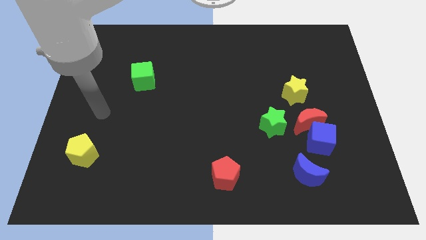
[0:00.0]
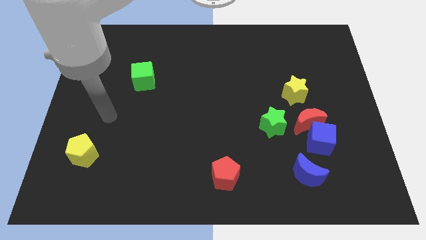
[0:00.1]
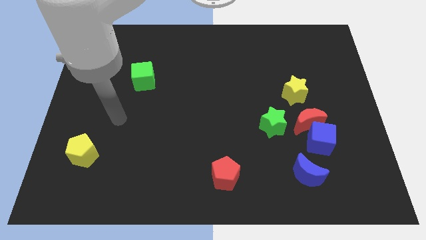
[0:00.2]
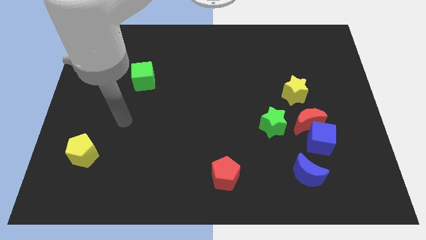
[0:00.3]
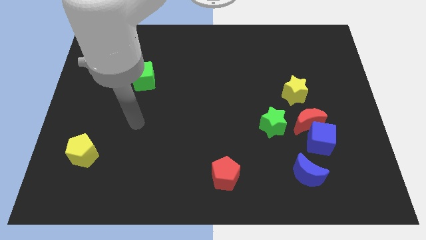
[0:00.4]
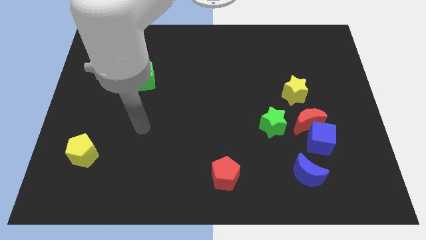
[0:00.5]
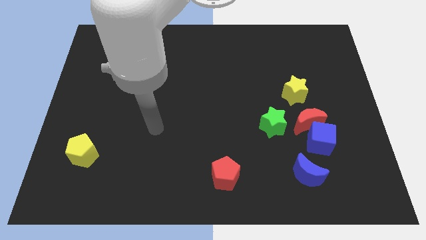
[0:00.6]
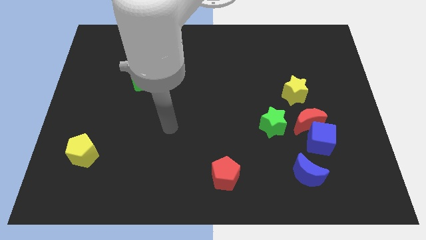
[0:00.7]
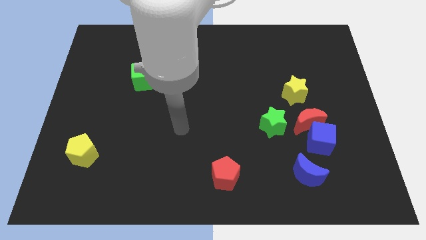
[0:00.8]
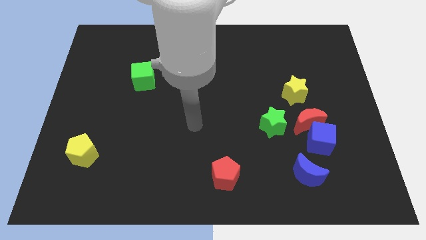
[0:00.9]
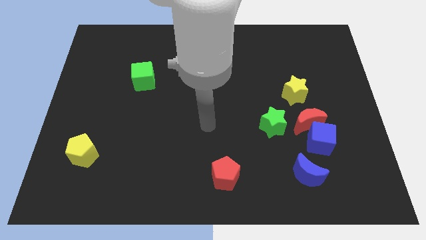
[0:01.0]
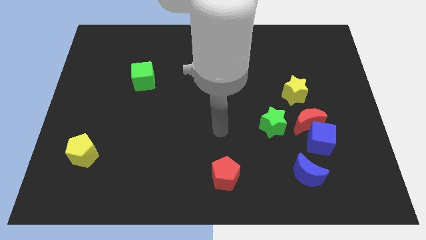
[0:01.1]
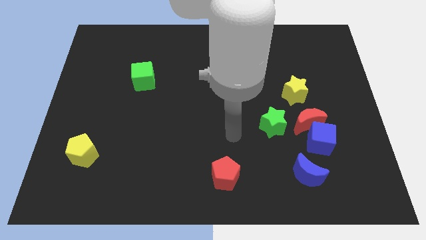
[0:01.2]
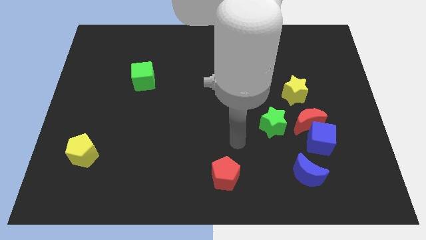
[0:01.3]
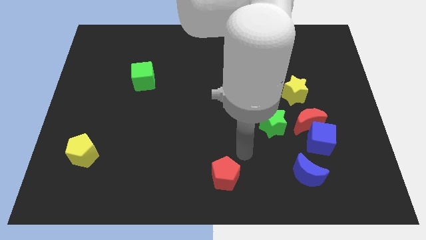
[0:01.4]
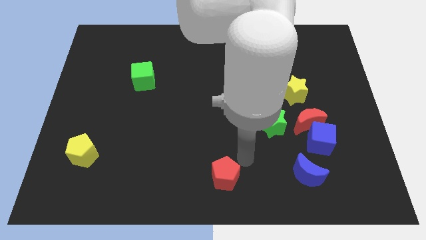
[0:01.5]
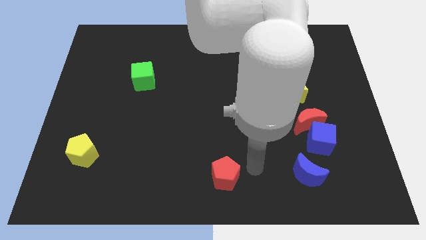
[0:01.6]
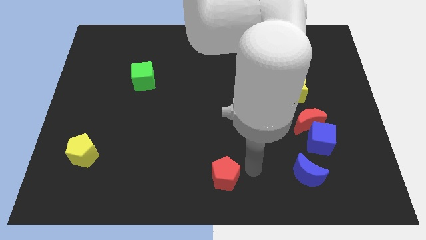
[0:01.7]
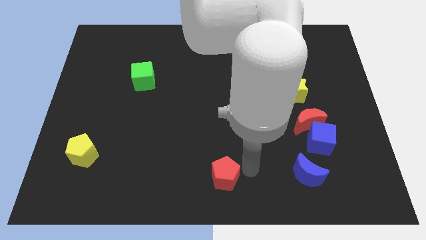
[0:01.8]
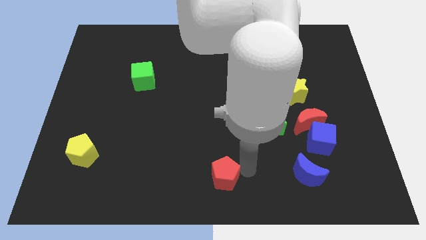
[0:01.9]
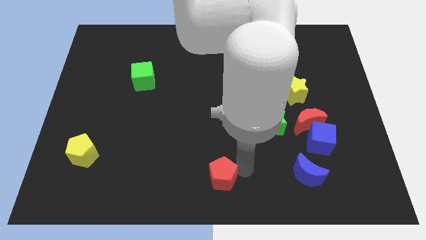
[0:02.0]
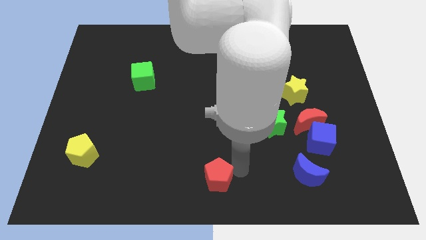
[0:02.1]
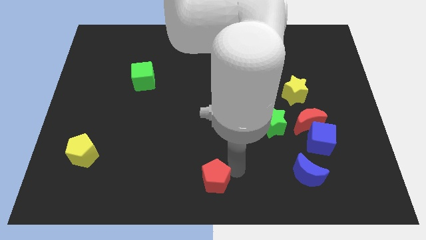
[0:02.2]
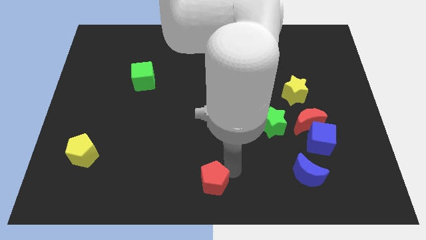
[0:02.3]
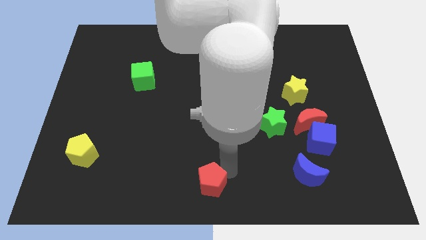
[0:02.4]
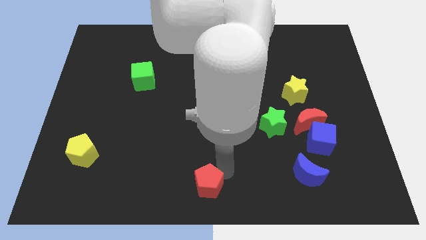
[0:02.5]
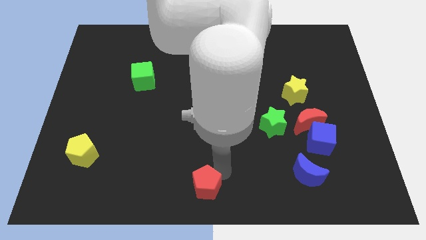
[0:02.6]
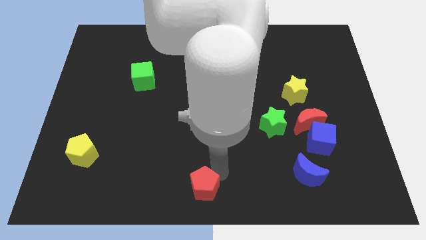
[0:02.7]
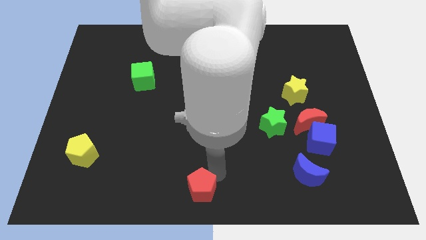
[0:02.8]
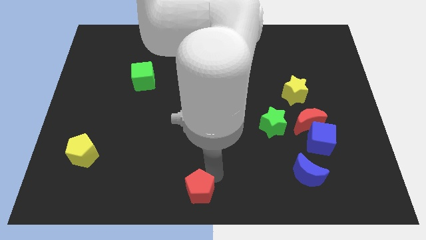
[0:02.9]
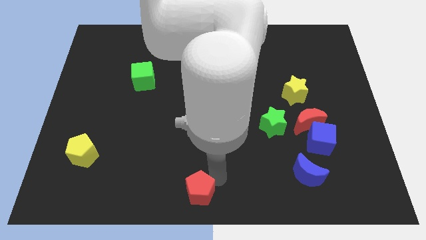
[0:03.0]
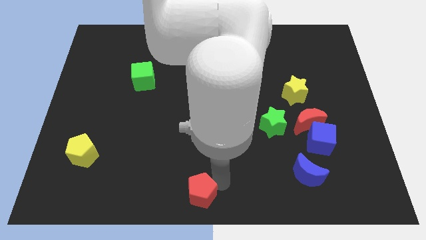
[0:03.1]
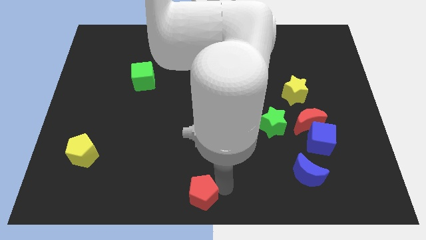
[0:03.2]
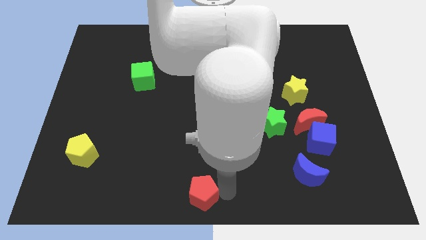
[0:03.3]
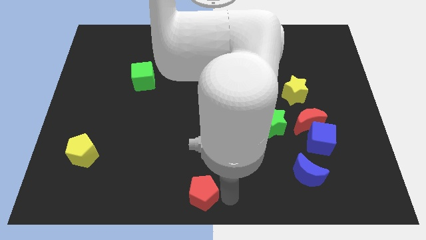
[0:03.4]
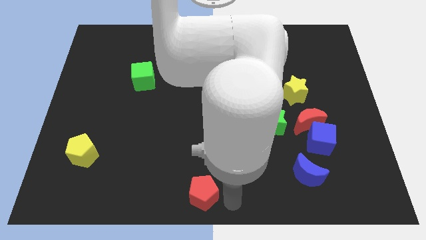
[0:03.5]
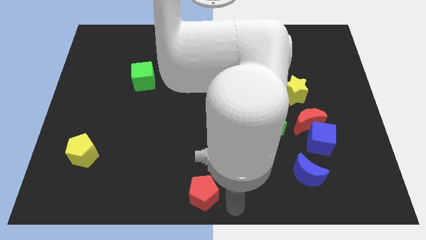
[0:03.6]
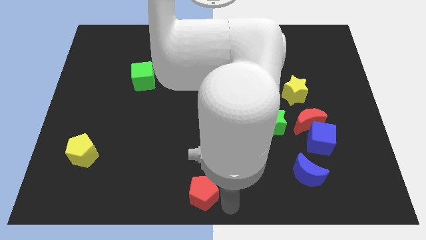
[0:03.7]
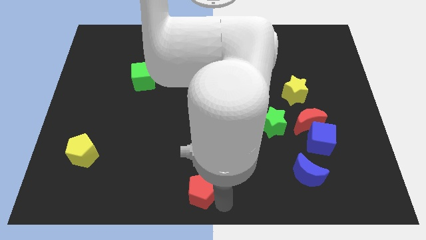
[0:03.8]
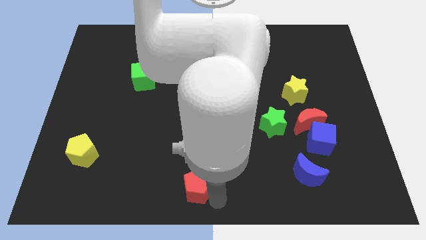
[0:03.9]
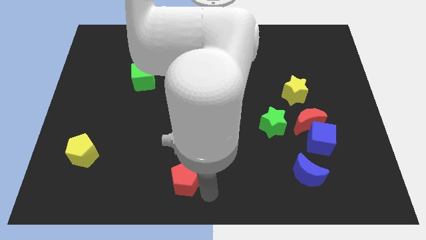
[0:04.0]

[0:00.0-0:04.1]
push the red pentagon left a little

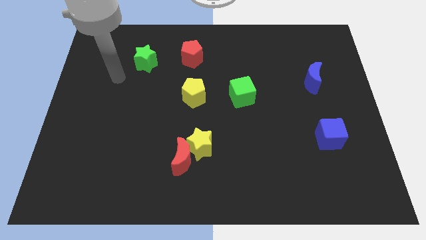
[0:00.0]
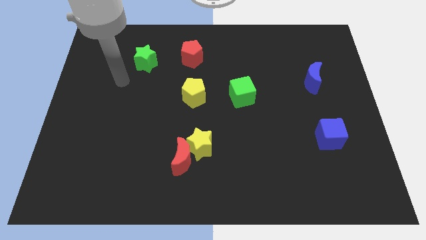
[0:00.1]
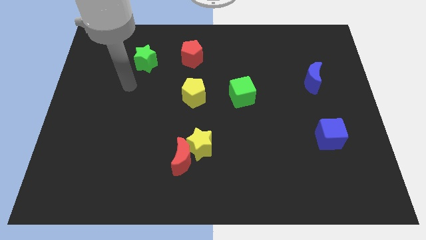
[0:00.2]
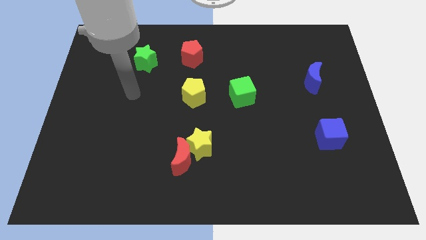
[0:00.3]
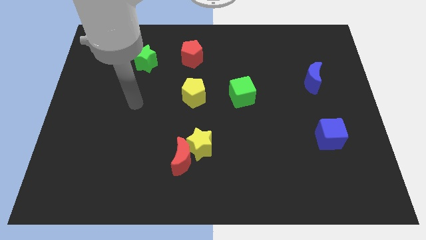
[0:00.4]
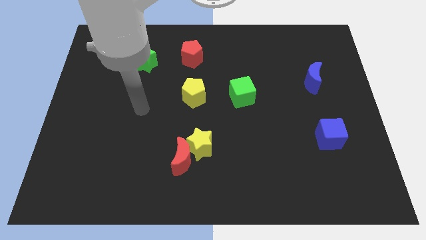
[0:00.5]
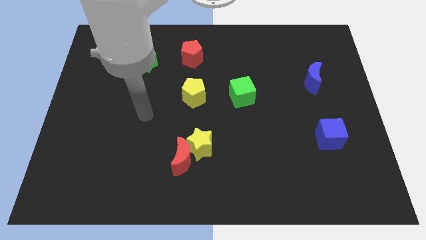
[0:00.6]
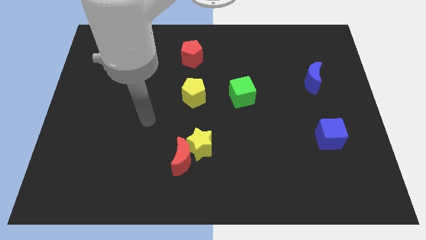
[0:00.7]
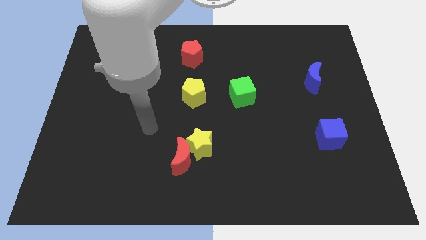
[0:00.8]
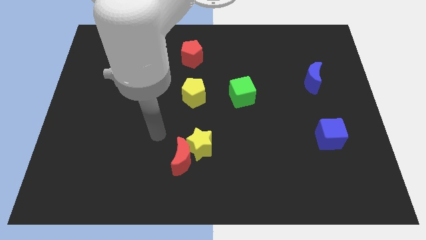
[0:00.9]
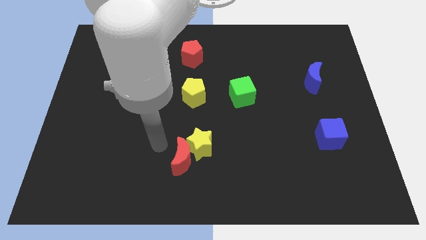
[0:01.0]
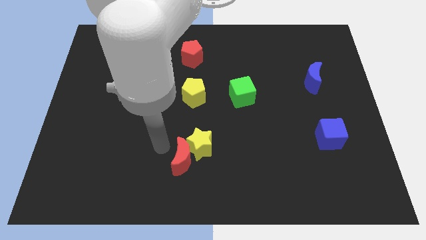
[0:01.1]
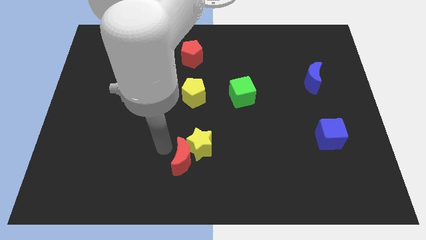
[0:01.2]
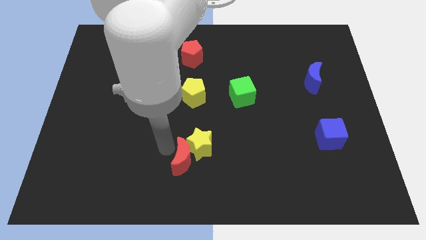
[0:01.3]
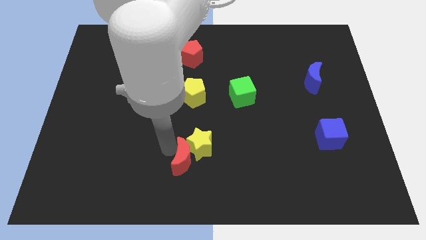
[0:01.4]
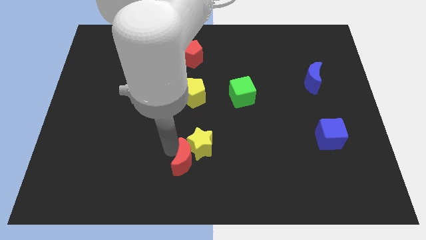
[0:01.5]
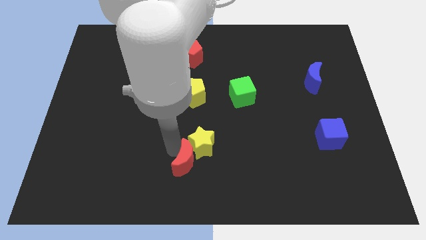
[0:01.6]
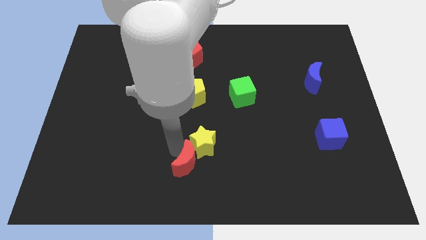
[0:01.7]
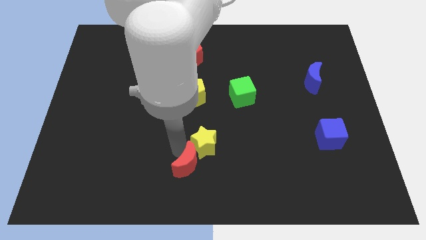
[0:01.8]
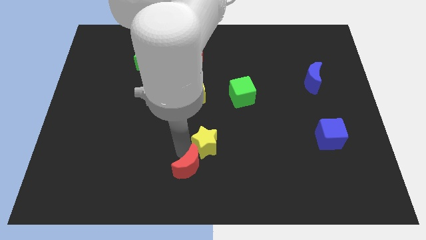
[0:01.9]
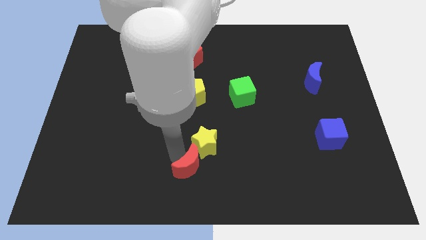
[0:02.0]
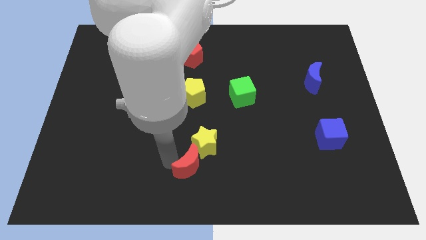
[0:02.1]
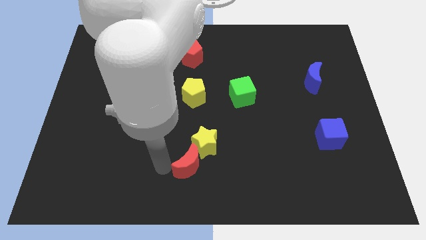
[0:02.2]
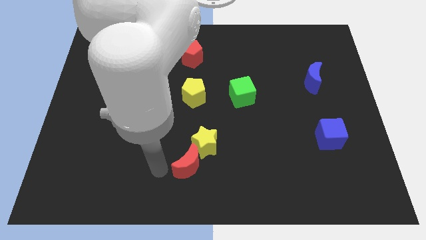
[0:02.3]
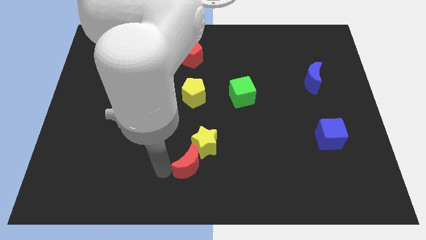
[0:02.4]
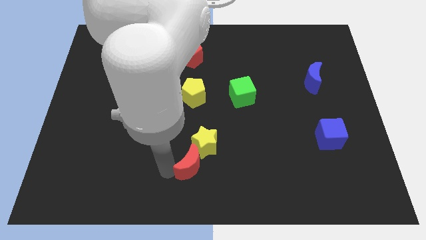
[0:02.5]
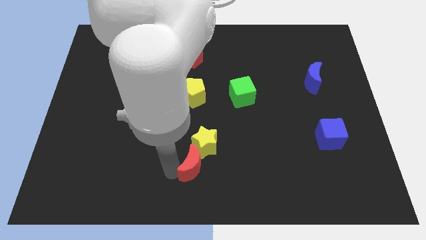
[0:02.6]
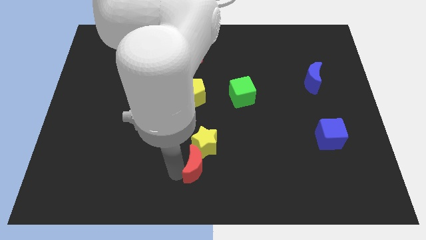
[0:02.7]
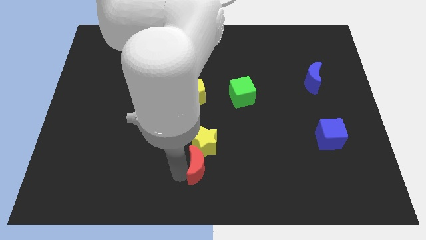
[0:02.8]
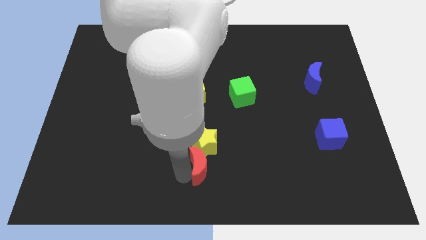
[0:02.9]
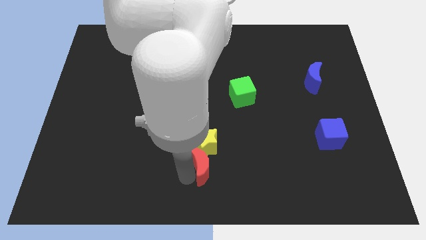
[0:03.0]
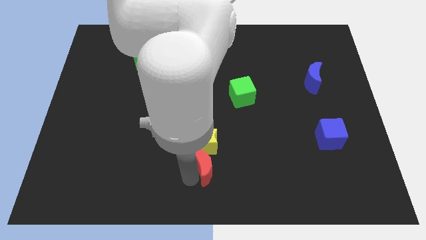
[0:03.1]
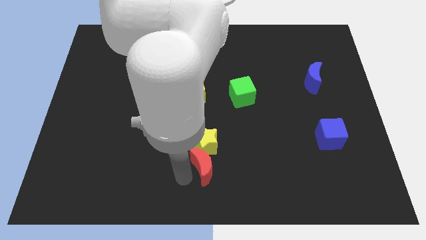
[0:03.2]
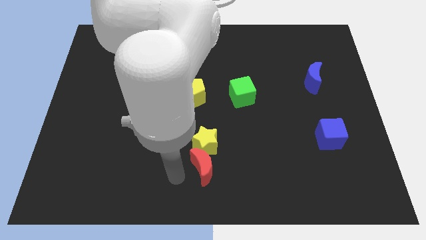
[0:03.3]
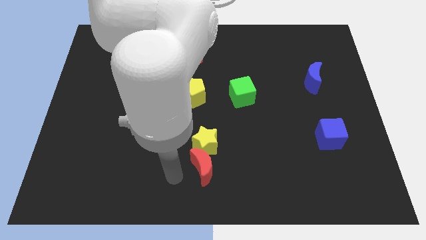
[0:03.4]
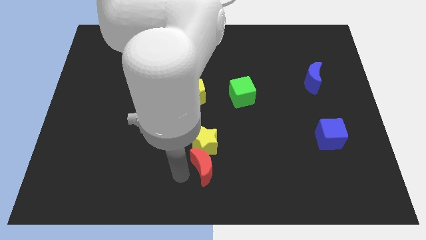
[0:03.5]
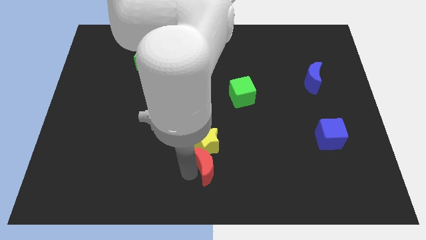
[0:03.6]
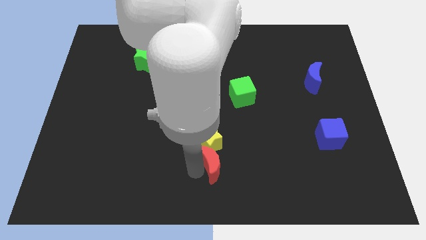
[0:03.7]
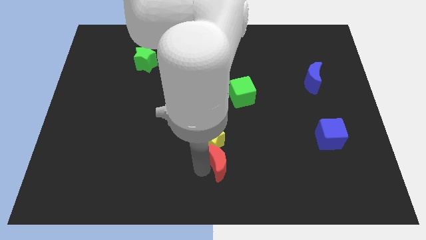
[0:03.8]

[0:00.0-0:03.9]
slightly push the red moon to the right

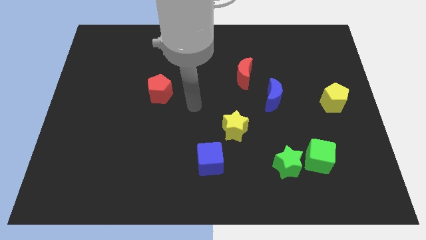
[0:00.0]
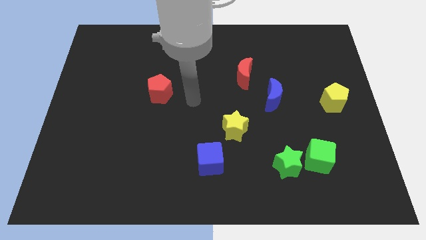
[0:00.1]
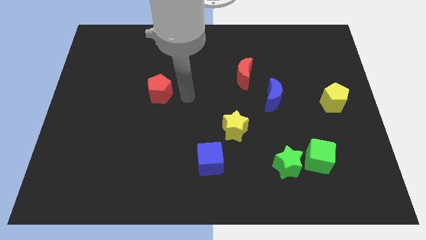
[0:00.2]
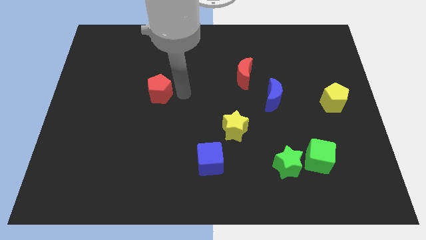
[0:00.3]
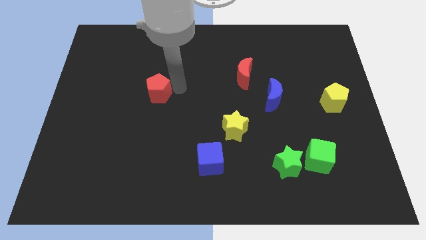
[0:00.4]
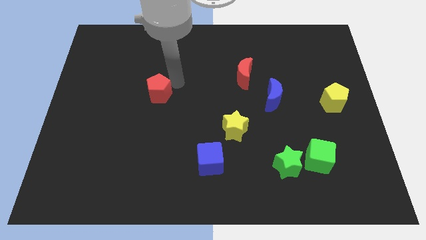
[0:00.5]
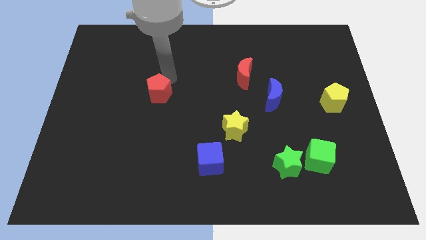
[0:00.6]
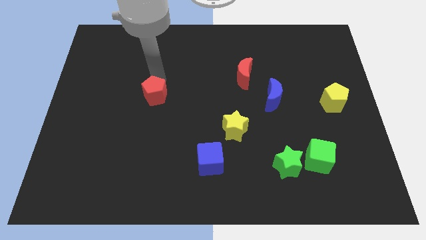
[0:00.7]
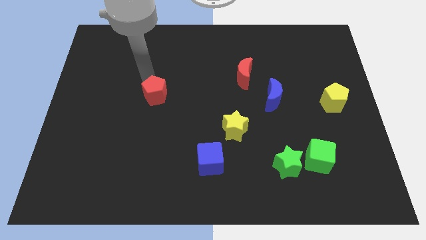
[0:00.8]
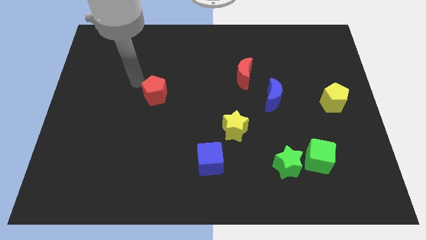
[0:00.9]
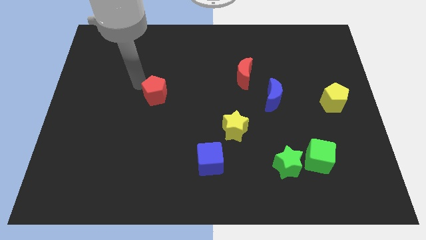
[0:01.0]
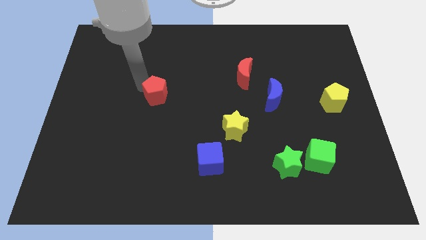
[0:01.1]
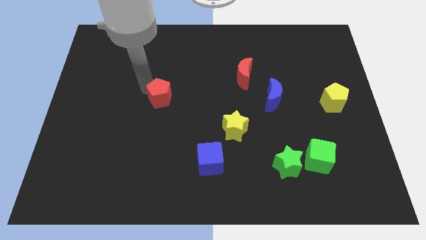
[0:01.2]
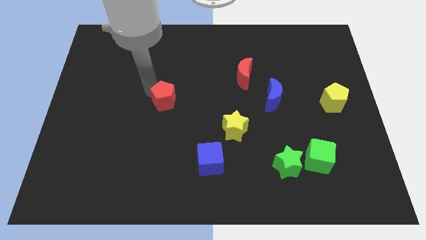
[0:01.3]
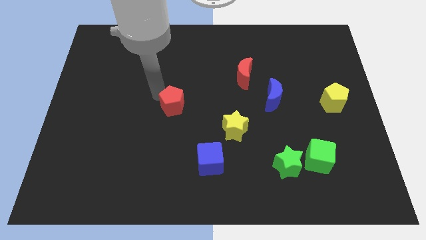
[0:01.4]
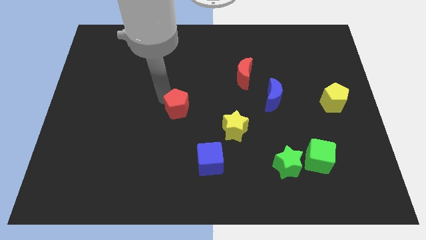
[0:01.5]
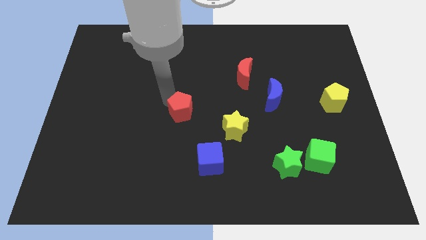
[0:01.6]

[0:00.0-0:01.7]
slightly slide the red pentagon diagonally downwards and to the right
